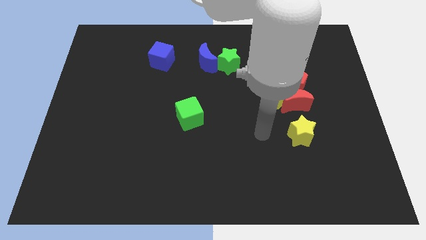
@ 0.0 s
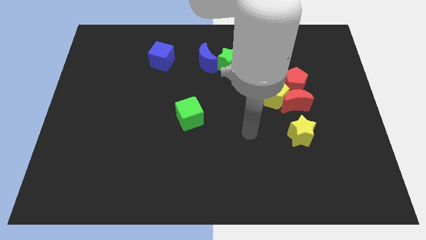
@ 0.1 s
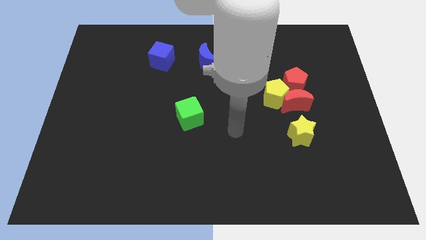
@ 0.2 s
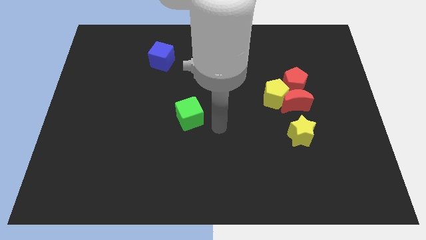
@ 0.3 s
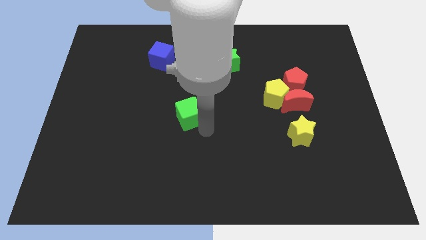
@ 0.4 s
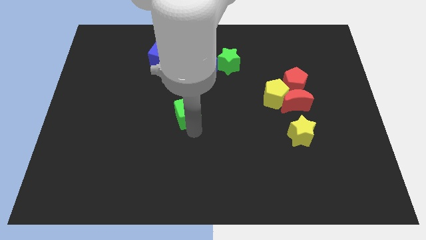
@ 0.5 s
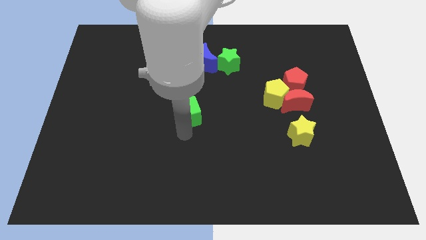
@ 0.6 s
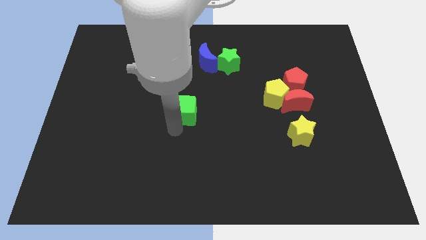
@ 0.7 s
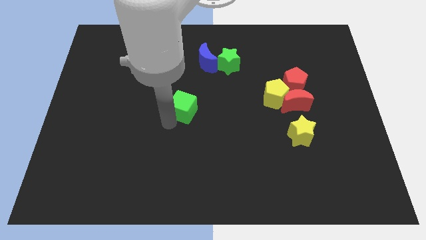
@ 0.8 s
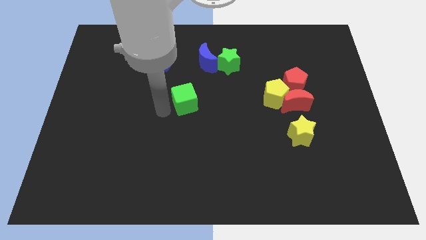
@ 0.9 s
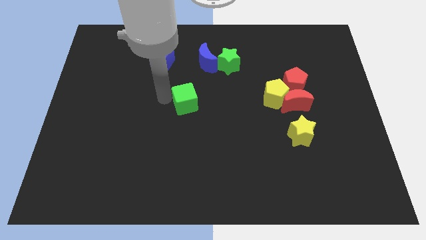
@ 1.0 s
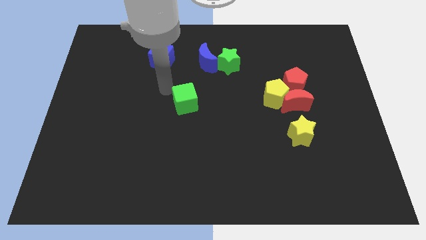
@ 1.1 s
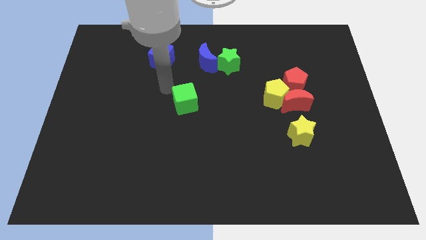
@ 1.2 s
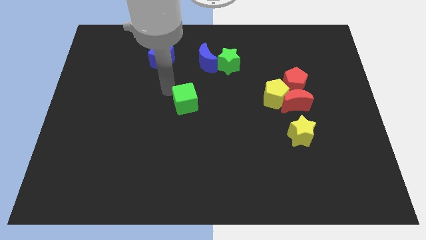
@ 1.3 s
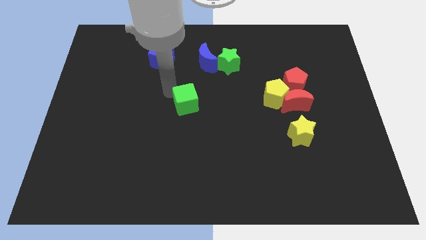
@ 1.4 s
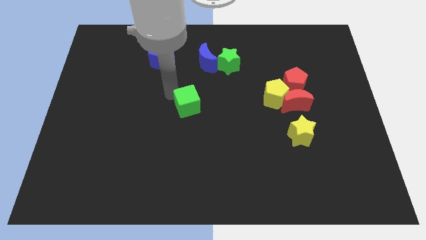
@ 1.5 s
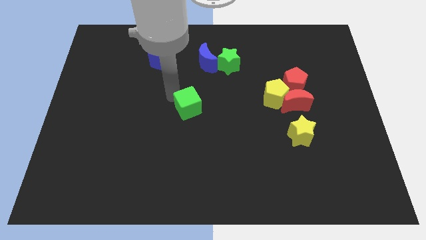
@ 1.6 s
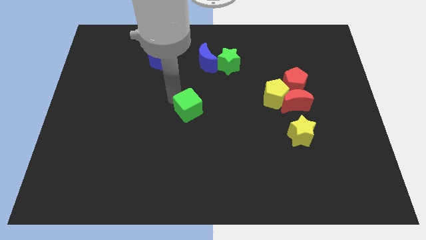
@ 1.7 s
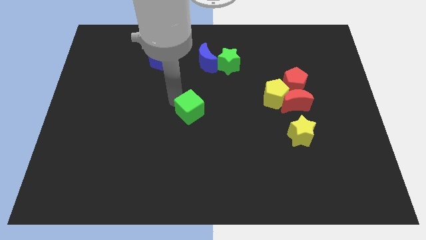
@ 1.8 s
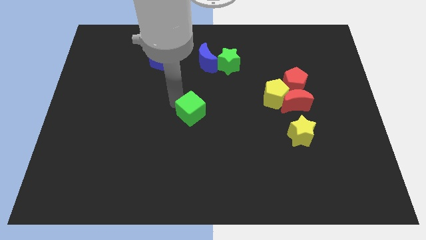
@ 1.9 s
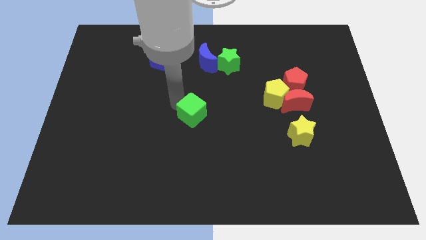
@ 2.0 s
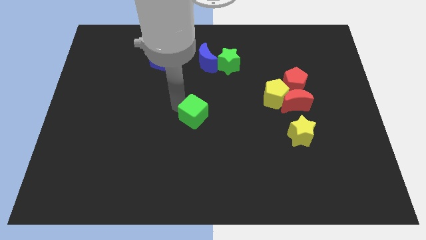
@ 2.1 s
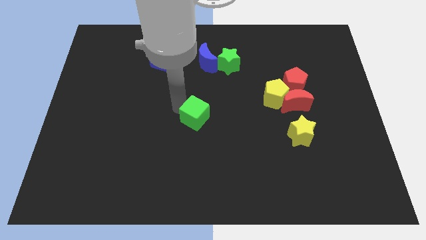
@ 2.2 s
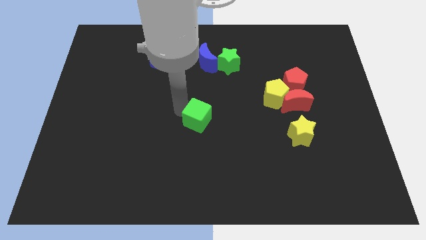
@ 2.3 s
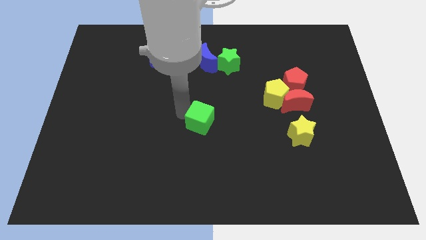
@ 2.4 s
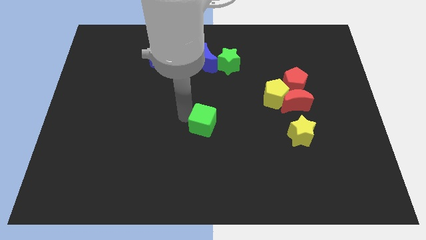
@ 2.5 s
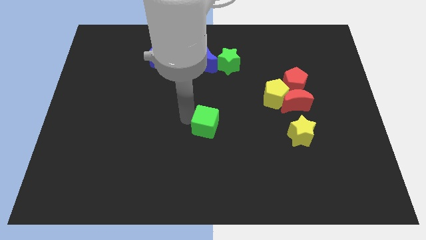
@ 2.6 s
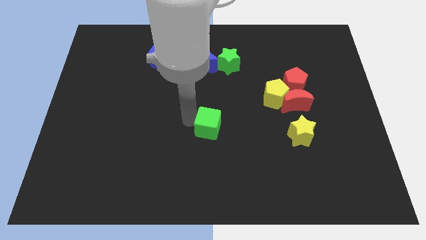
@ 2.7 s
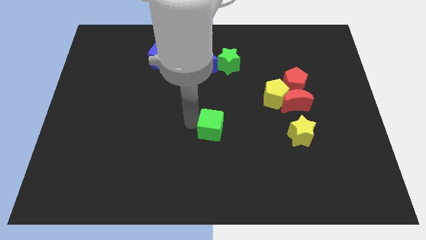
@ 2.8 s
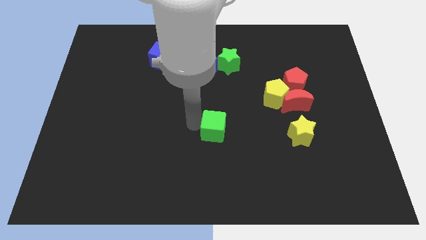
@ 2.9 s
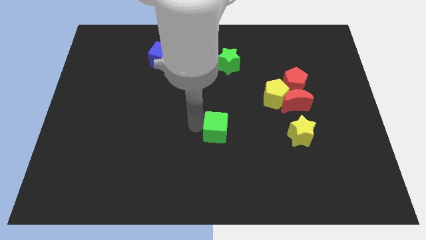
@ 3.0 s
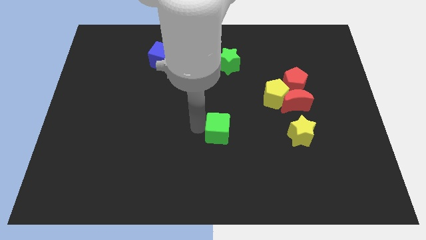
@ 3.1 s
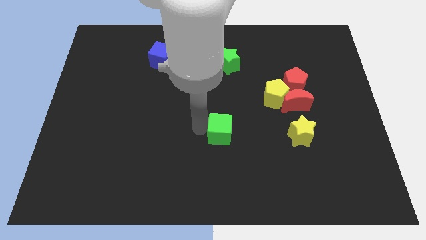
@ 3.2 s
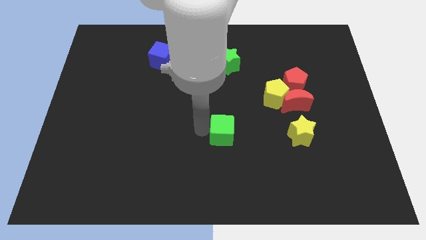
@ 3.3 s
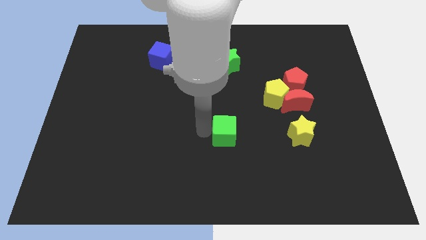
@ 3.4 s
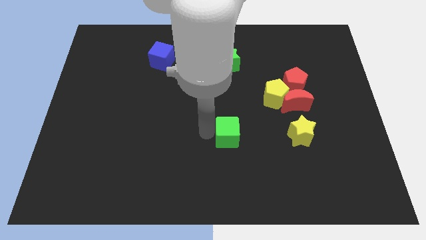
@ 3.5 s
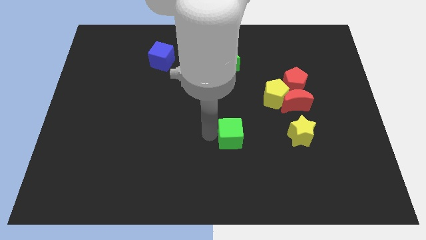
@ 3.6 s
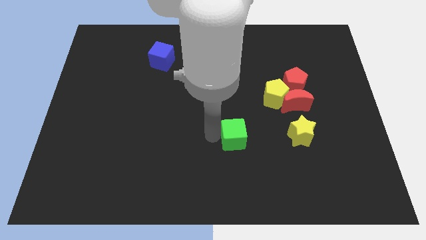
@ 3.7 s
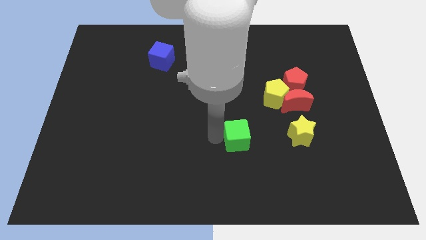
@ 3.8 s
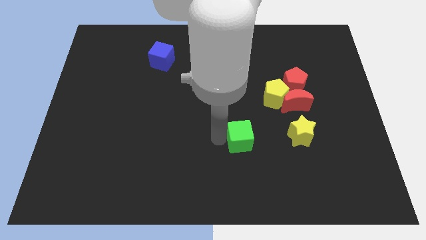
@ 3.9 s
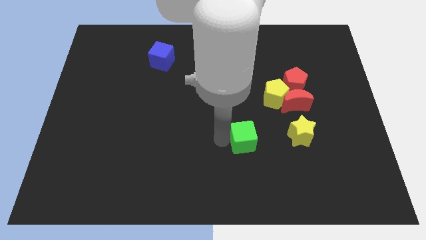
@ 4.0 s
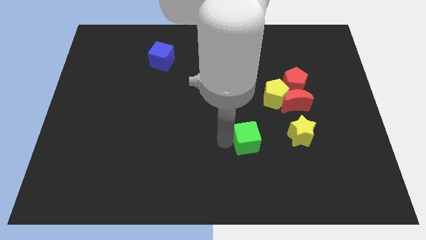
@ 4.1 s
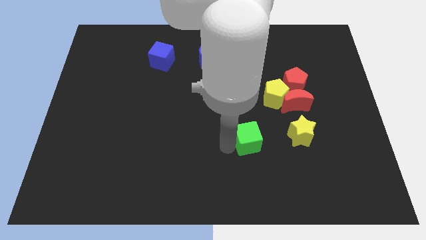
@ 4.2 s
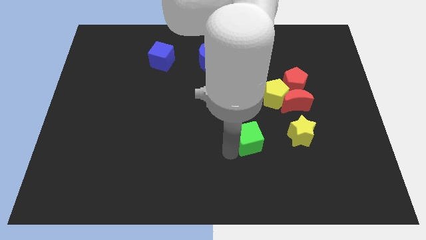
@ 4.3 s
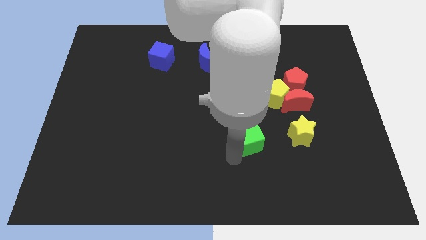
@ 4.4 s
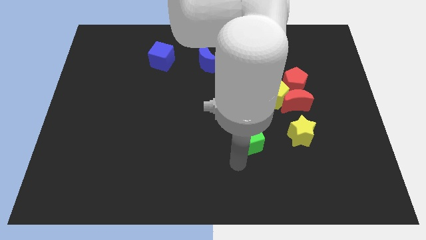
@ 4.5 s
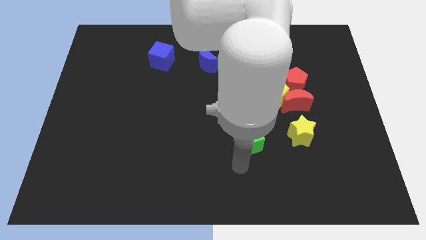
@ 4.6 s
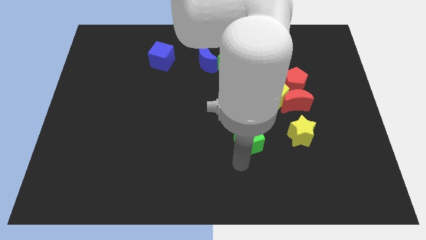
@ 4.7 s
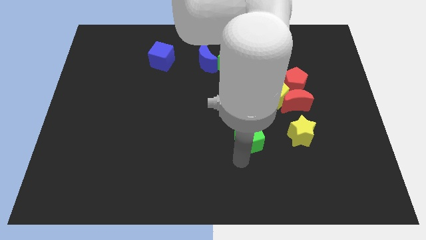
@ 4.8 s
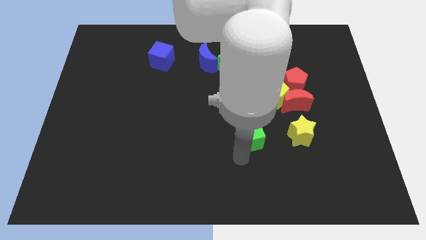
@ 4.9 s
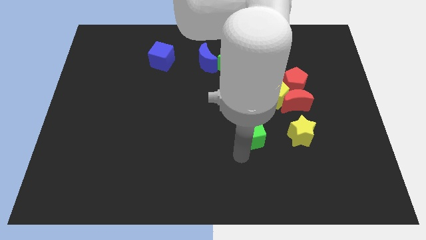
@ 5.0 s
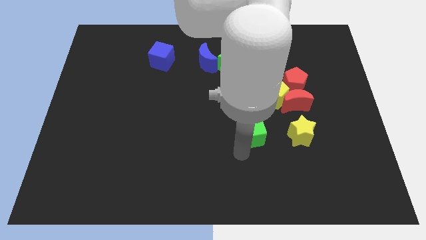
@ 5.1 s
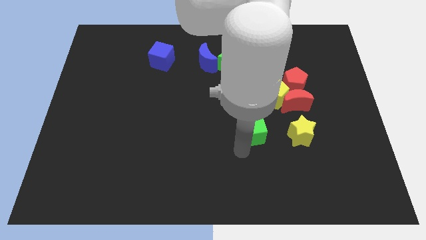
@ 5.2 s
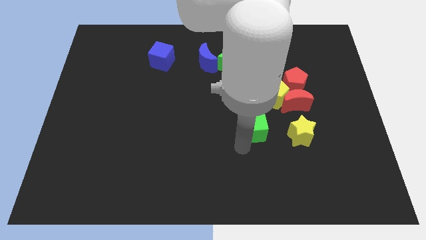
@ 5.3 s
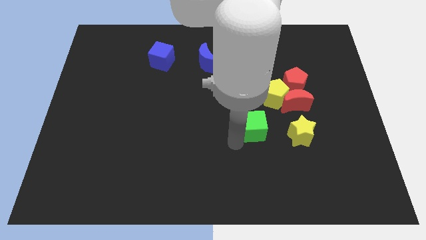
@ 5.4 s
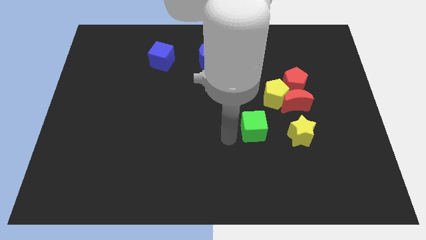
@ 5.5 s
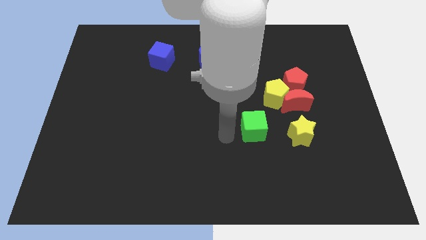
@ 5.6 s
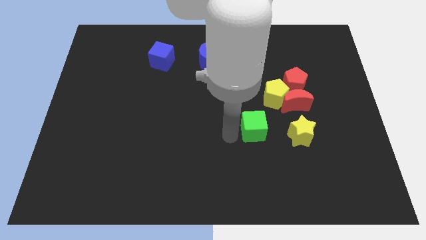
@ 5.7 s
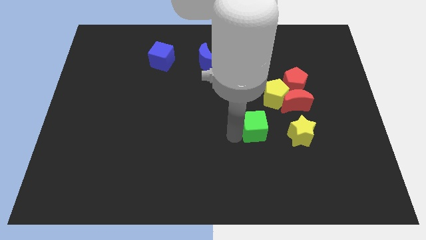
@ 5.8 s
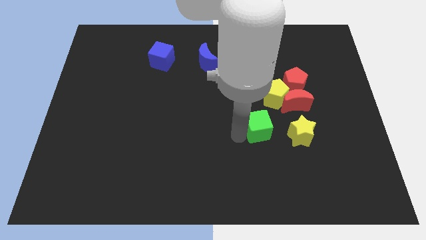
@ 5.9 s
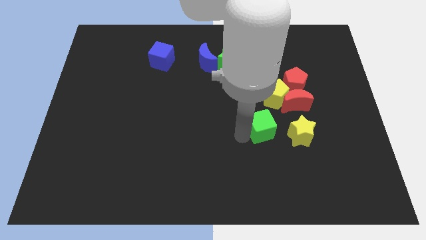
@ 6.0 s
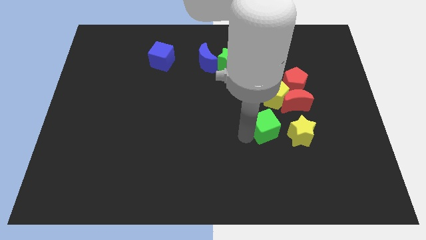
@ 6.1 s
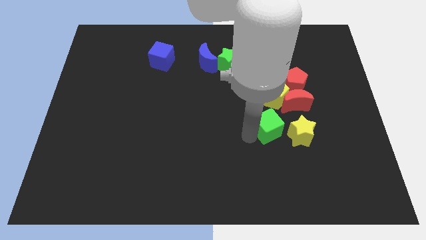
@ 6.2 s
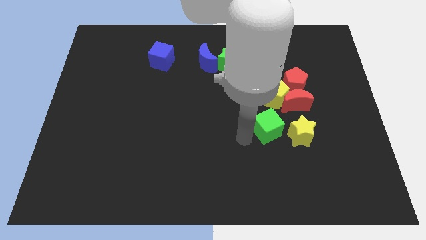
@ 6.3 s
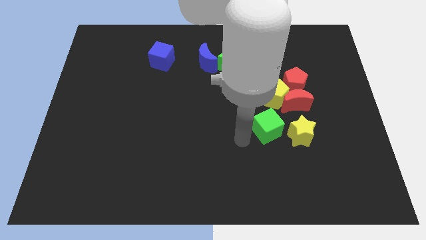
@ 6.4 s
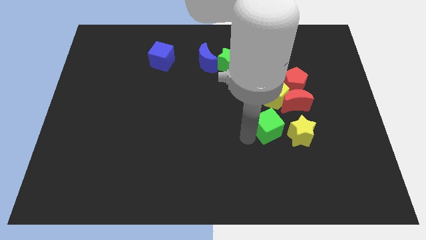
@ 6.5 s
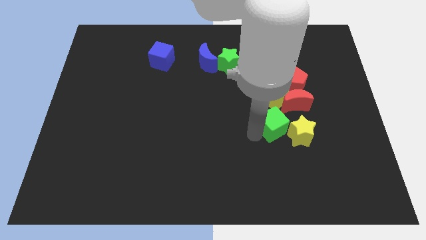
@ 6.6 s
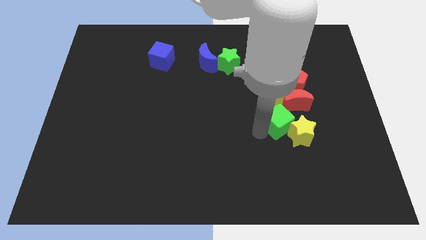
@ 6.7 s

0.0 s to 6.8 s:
move the green cube right
